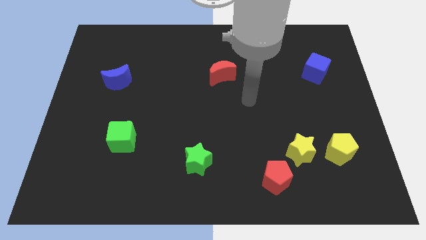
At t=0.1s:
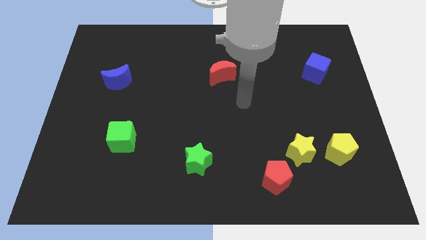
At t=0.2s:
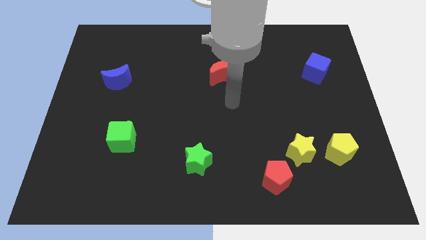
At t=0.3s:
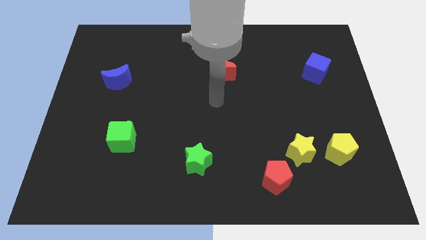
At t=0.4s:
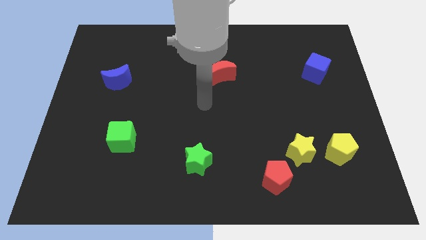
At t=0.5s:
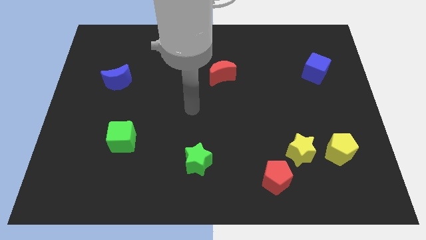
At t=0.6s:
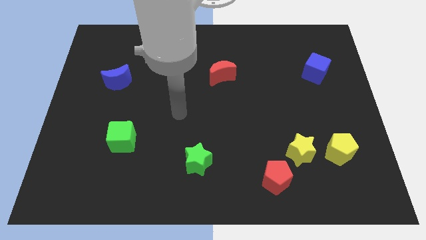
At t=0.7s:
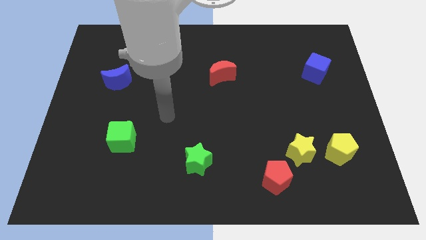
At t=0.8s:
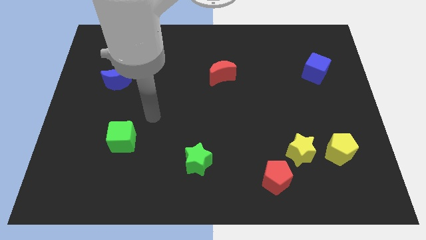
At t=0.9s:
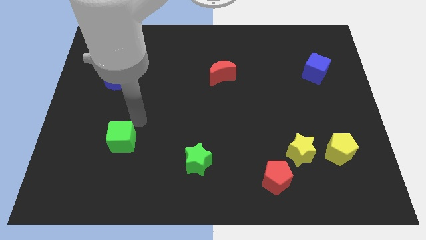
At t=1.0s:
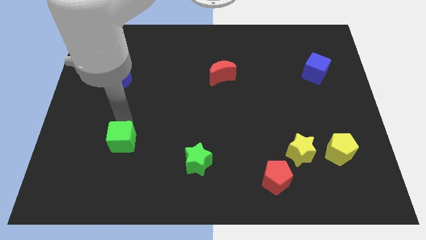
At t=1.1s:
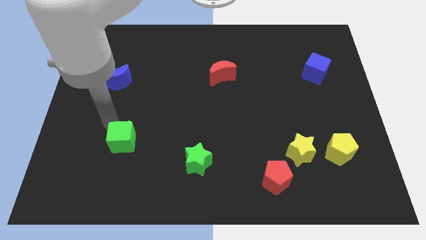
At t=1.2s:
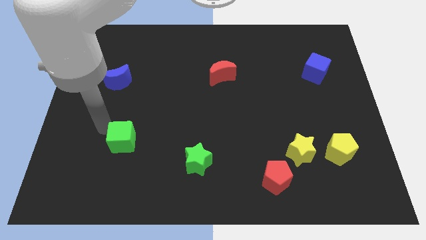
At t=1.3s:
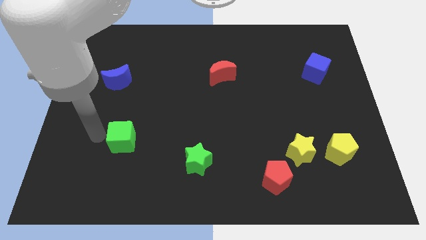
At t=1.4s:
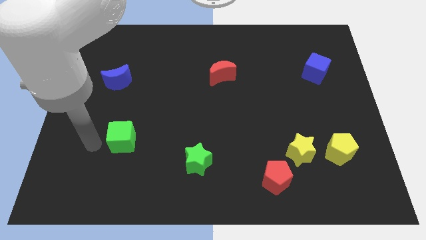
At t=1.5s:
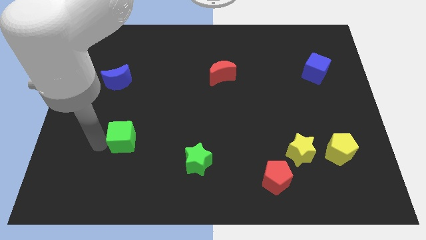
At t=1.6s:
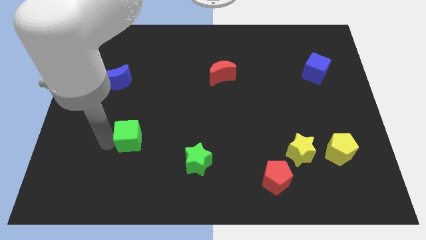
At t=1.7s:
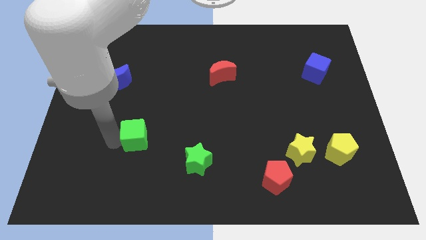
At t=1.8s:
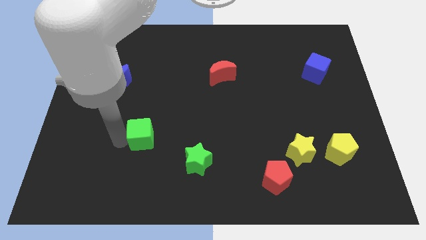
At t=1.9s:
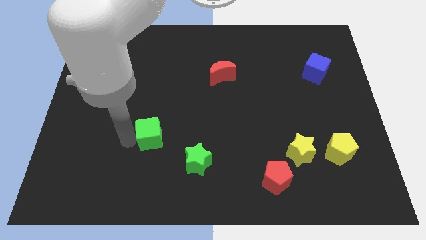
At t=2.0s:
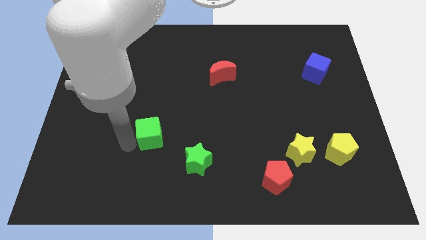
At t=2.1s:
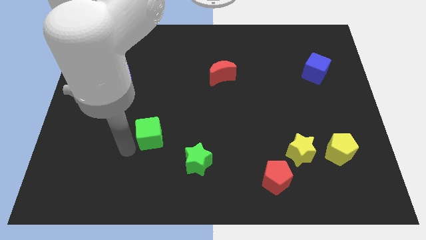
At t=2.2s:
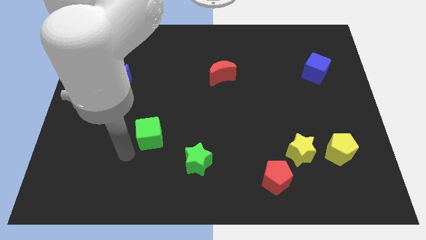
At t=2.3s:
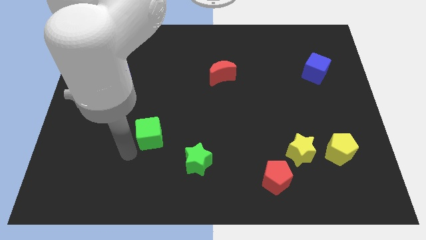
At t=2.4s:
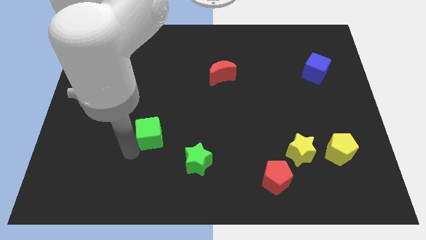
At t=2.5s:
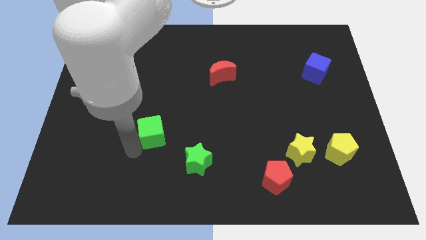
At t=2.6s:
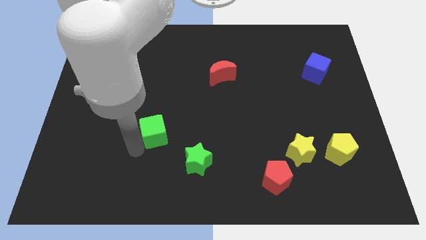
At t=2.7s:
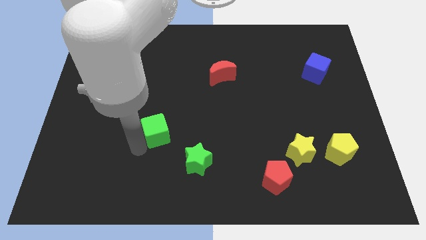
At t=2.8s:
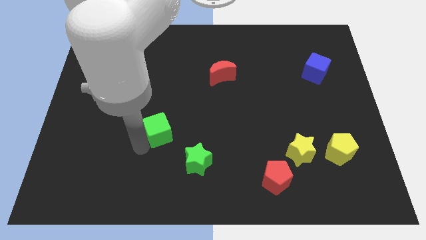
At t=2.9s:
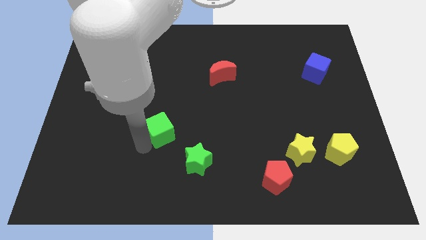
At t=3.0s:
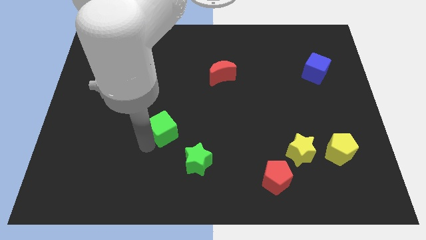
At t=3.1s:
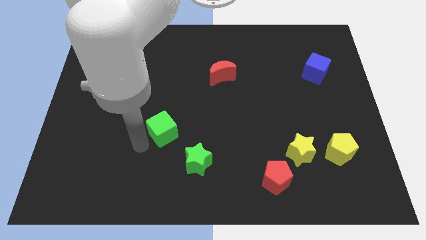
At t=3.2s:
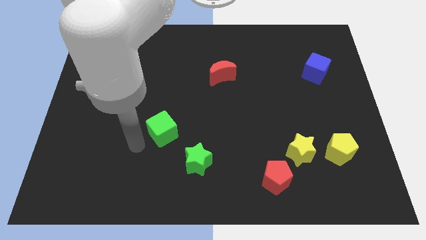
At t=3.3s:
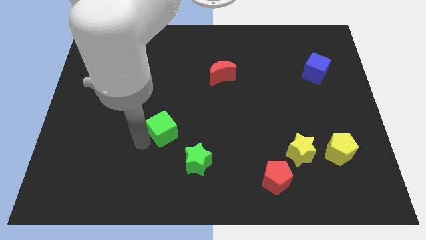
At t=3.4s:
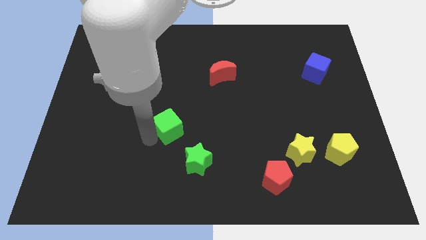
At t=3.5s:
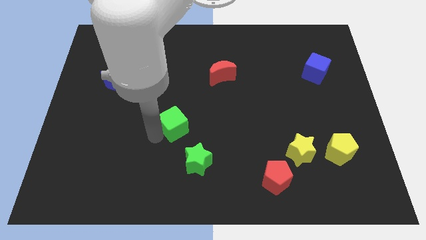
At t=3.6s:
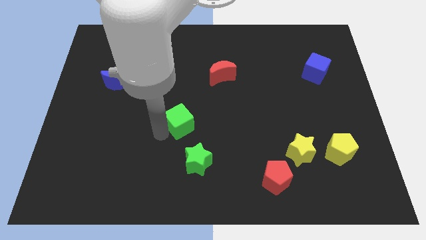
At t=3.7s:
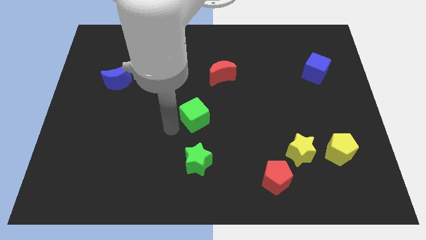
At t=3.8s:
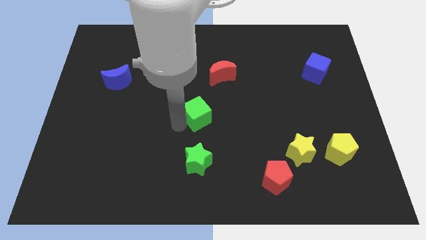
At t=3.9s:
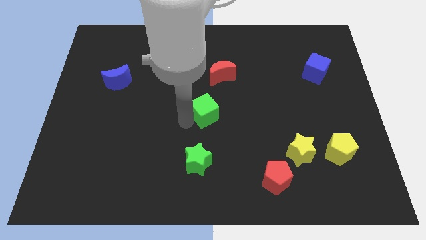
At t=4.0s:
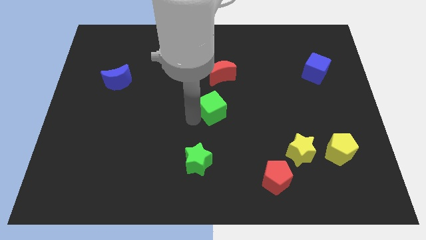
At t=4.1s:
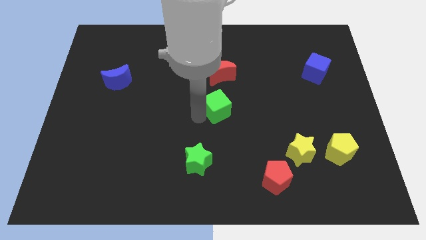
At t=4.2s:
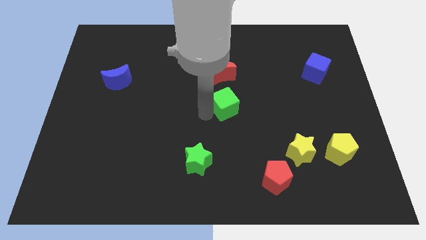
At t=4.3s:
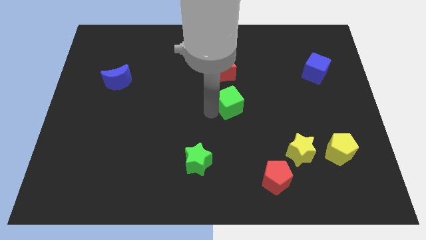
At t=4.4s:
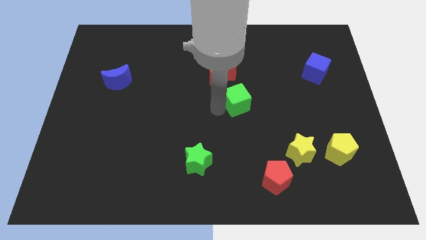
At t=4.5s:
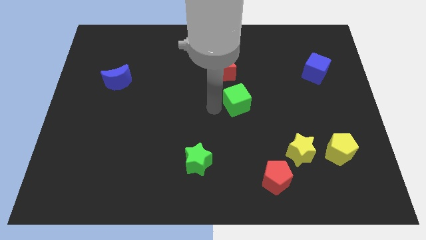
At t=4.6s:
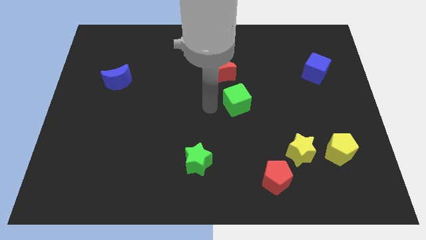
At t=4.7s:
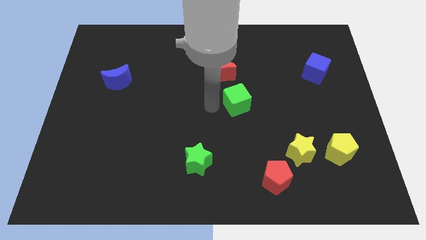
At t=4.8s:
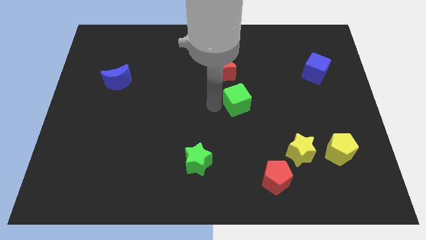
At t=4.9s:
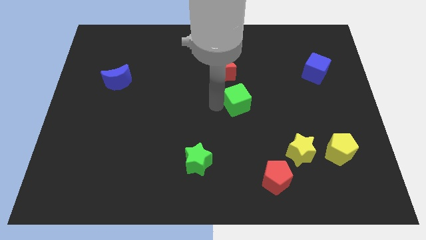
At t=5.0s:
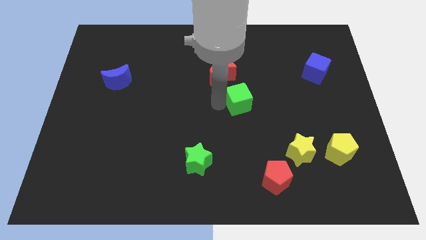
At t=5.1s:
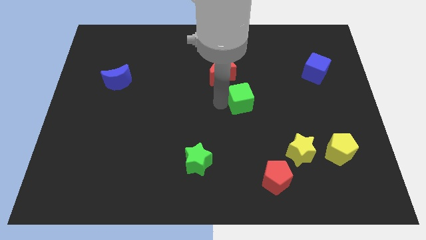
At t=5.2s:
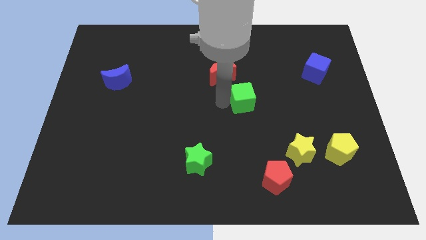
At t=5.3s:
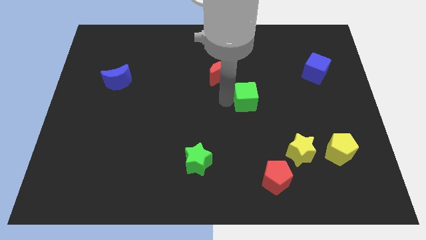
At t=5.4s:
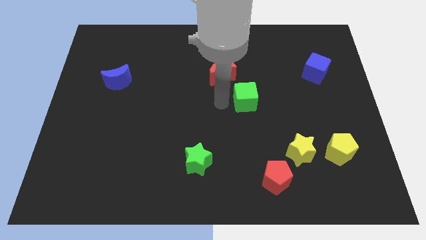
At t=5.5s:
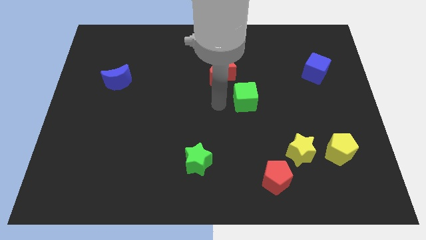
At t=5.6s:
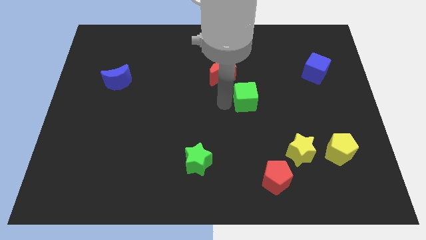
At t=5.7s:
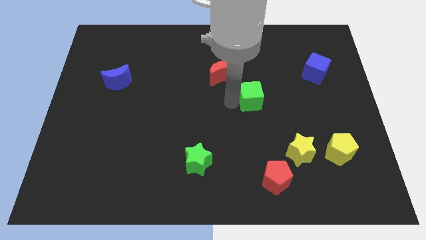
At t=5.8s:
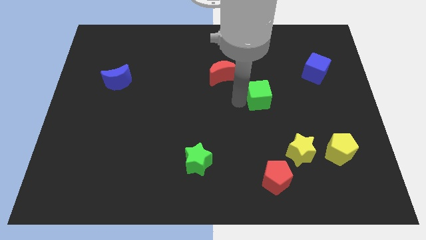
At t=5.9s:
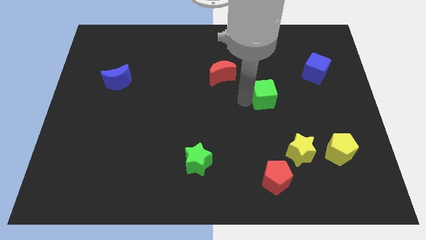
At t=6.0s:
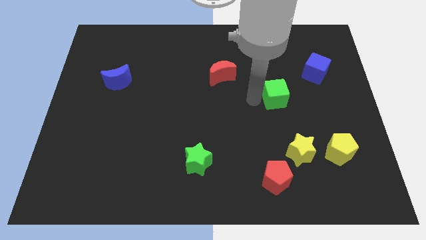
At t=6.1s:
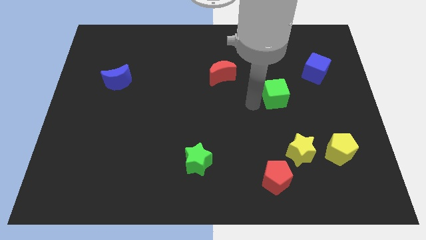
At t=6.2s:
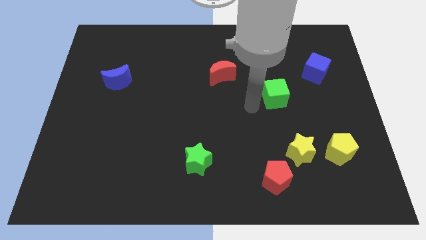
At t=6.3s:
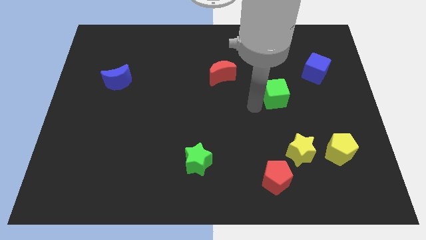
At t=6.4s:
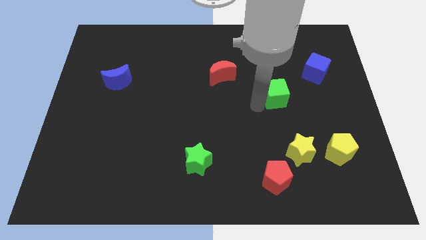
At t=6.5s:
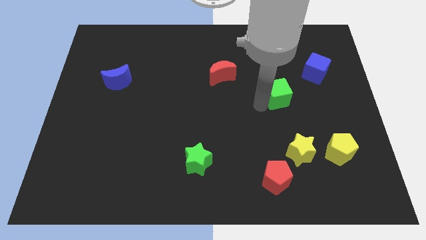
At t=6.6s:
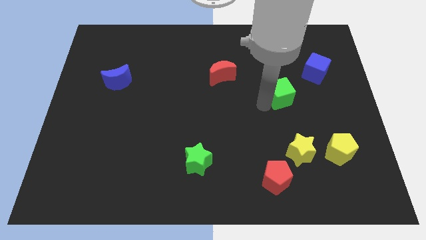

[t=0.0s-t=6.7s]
move the green cube to the bottom left of the blue cube
